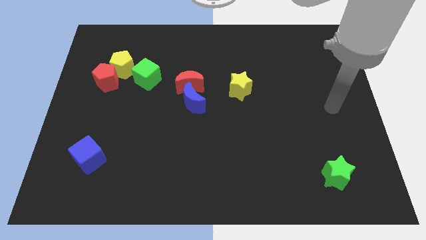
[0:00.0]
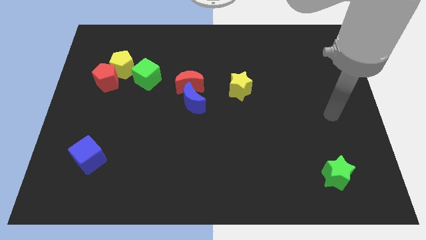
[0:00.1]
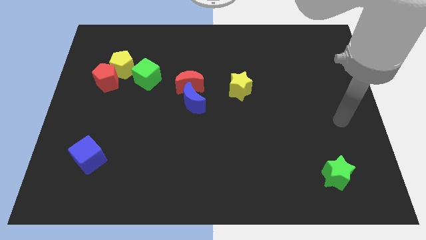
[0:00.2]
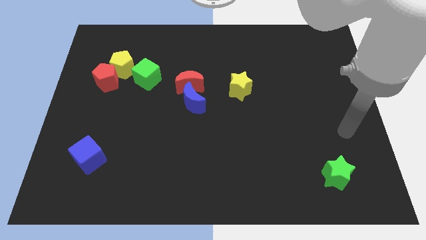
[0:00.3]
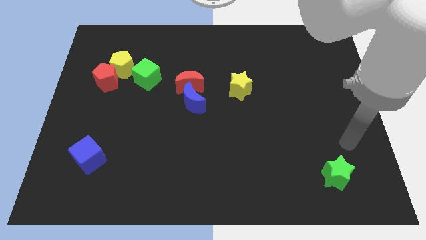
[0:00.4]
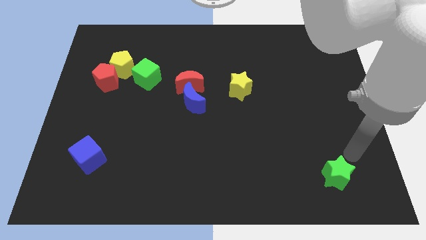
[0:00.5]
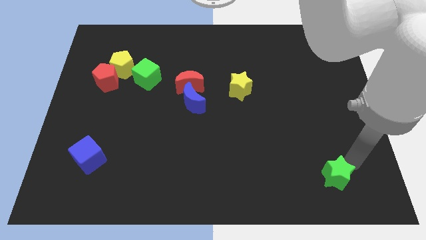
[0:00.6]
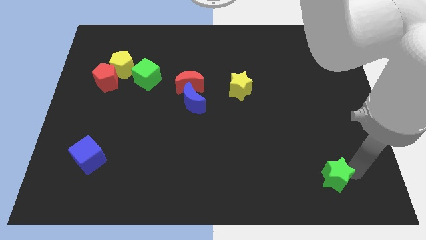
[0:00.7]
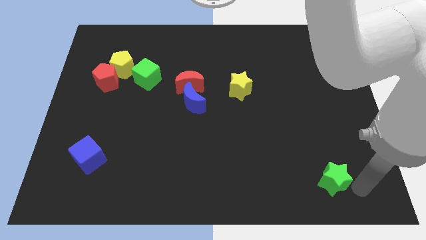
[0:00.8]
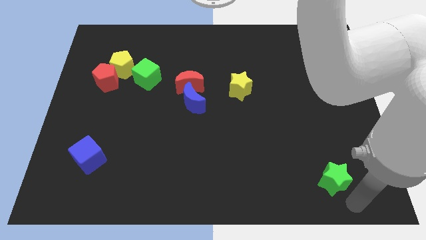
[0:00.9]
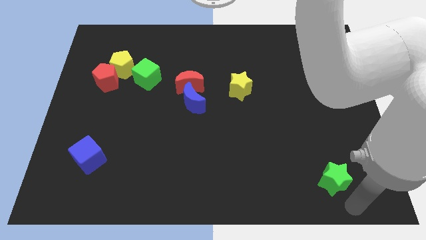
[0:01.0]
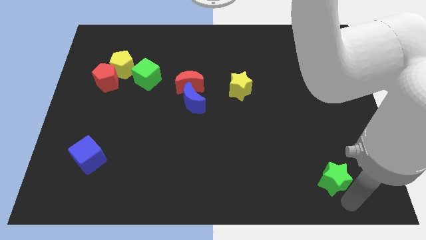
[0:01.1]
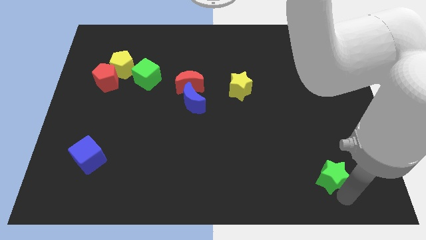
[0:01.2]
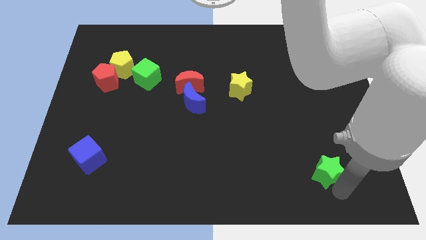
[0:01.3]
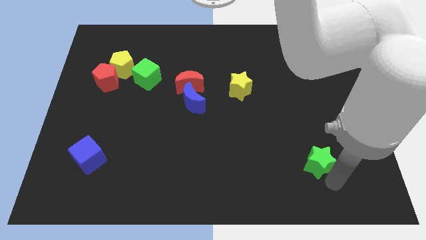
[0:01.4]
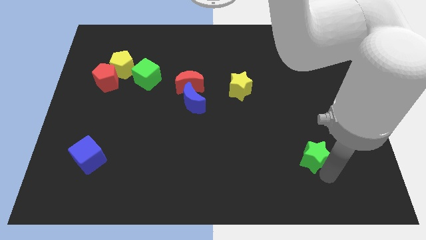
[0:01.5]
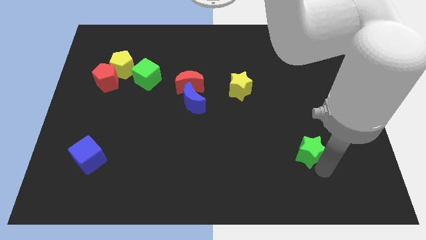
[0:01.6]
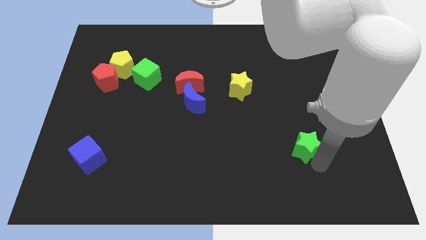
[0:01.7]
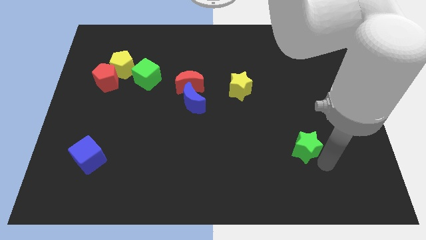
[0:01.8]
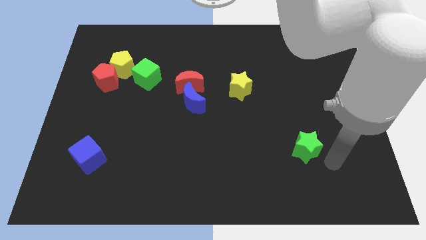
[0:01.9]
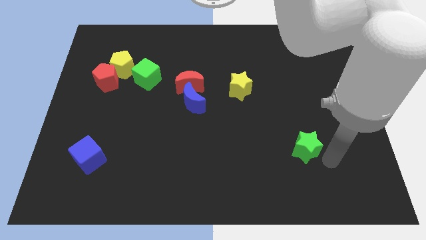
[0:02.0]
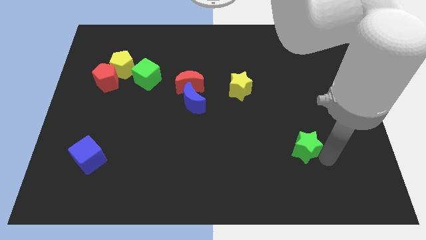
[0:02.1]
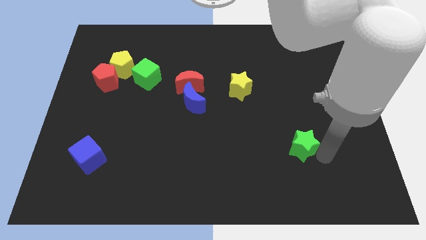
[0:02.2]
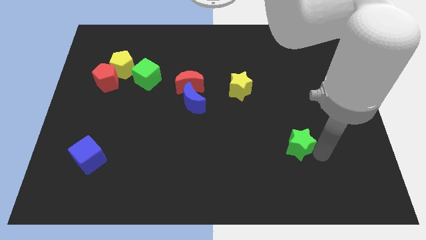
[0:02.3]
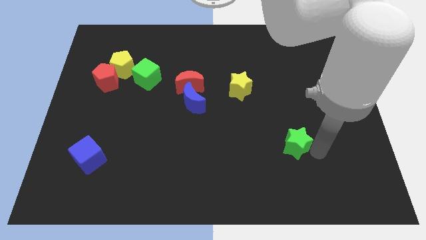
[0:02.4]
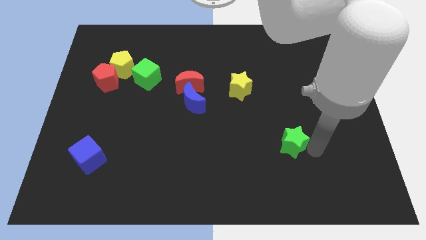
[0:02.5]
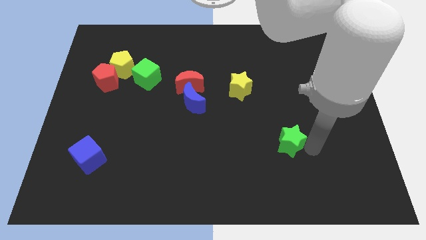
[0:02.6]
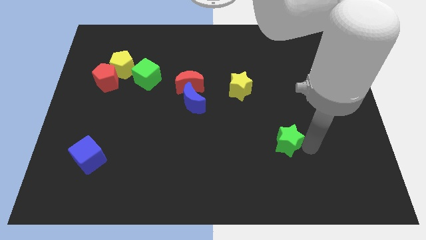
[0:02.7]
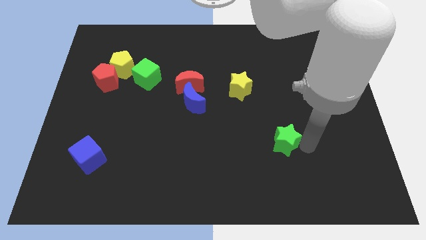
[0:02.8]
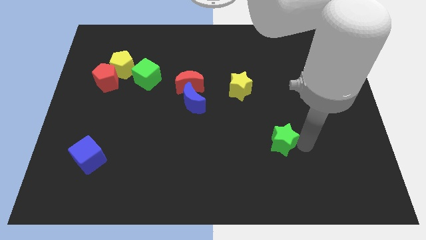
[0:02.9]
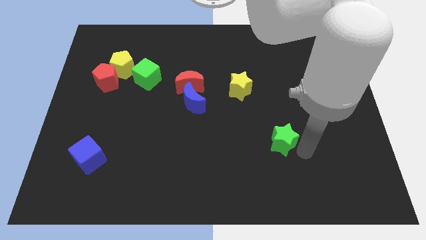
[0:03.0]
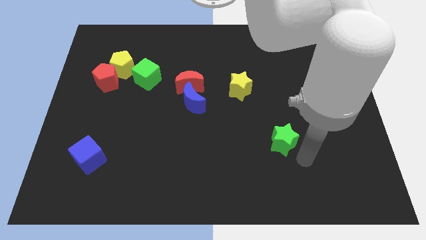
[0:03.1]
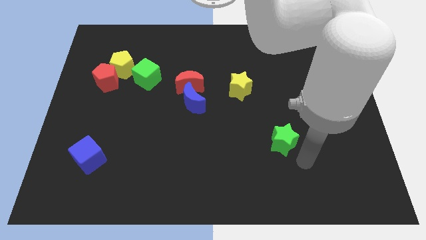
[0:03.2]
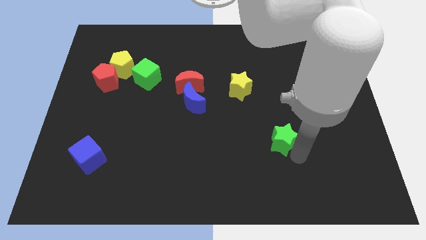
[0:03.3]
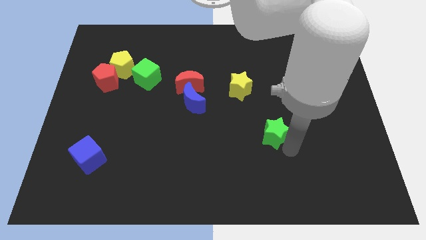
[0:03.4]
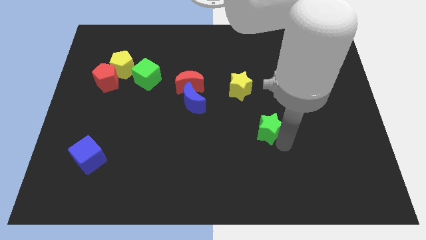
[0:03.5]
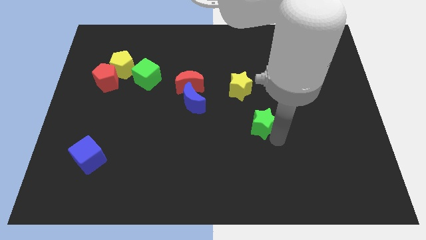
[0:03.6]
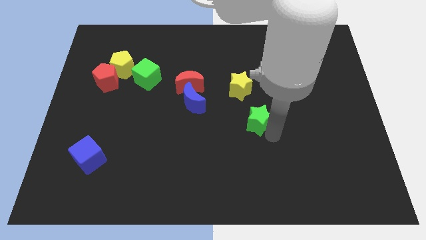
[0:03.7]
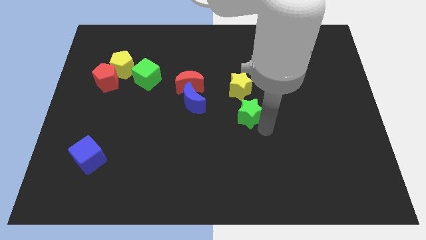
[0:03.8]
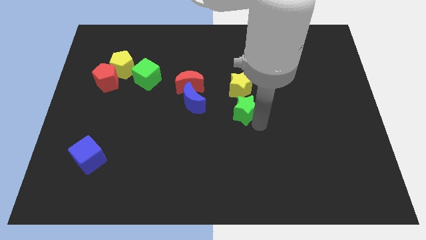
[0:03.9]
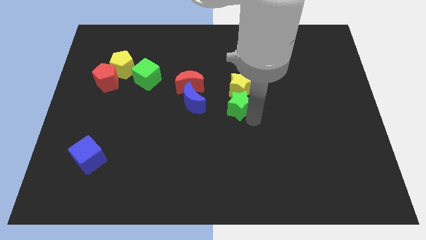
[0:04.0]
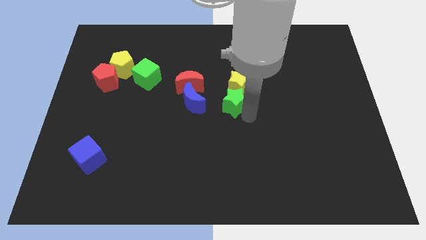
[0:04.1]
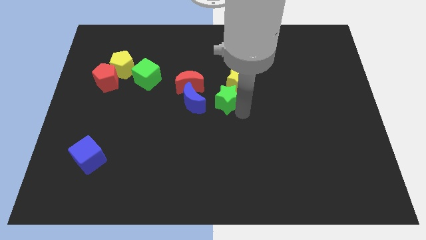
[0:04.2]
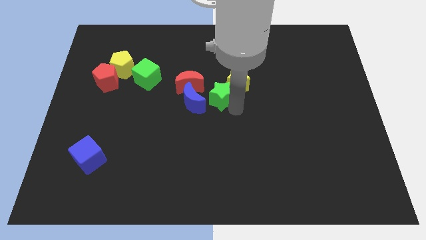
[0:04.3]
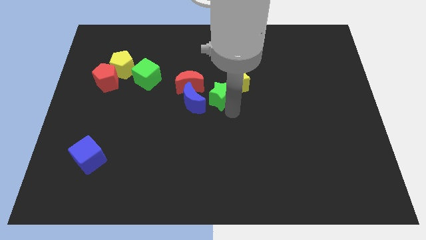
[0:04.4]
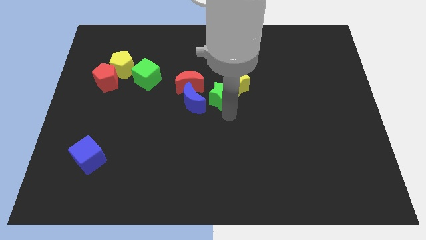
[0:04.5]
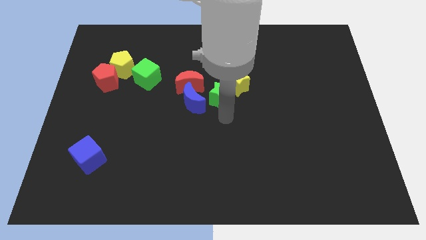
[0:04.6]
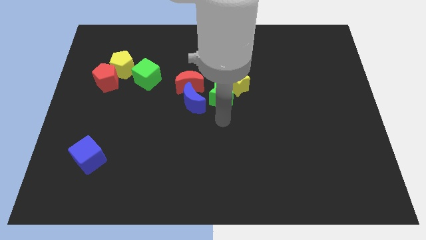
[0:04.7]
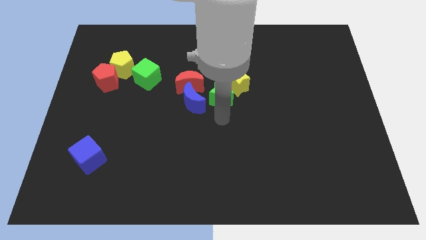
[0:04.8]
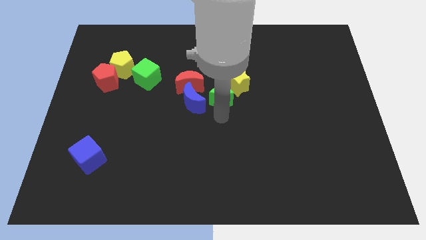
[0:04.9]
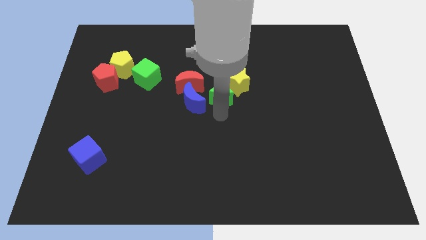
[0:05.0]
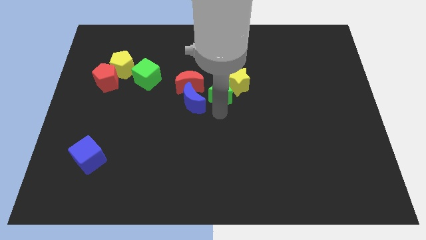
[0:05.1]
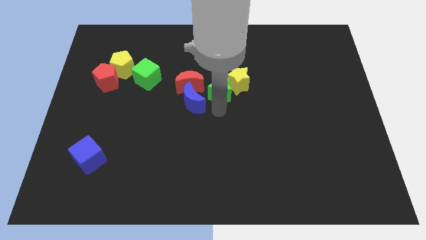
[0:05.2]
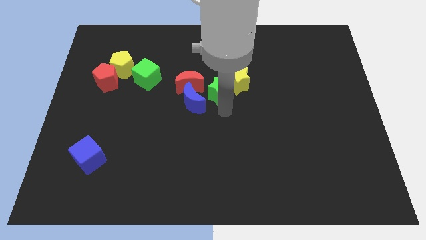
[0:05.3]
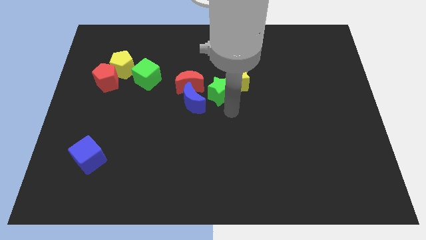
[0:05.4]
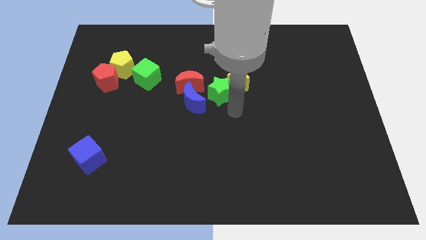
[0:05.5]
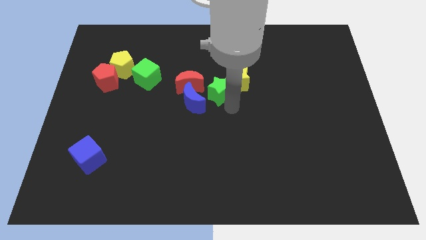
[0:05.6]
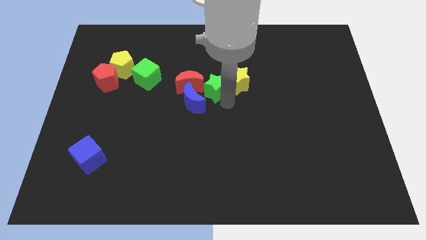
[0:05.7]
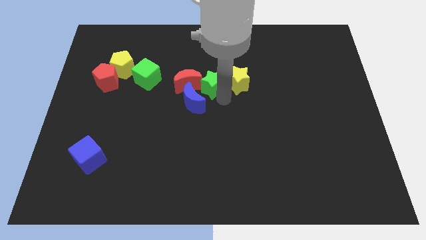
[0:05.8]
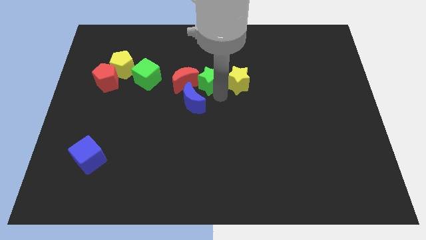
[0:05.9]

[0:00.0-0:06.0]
push the green star to the right of the green cube
